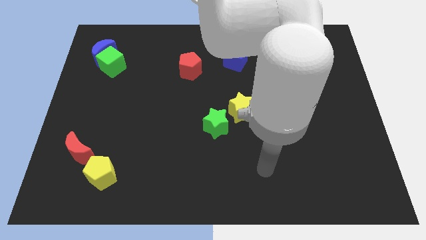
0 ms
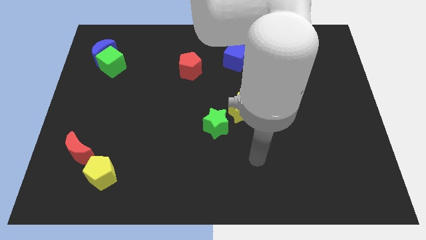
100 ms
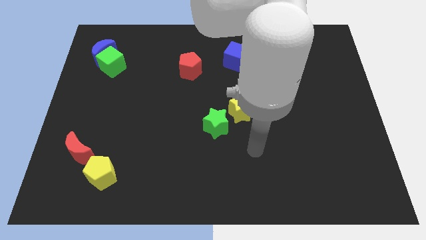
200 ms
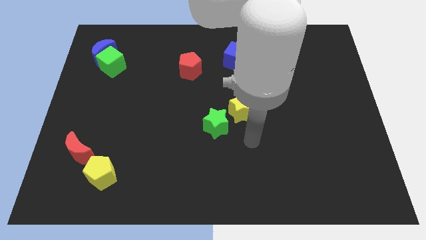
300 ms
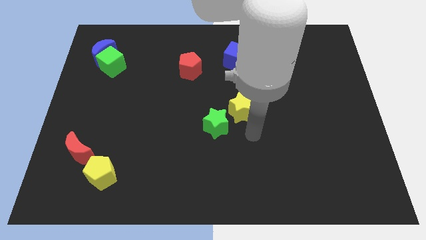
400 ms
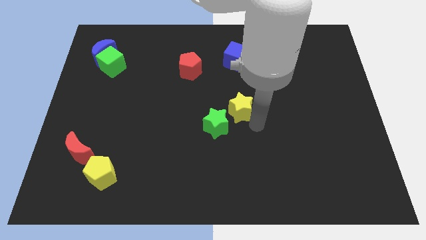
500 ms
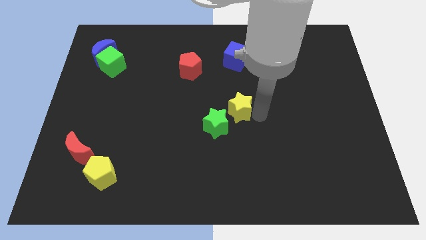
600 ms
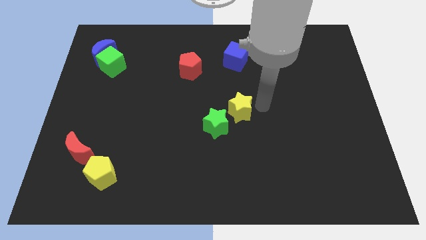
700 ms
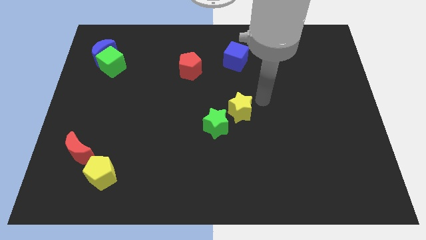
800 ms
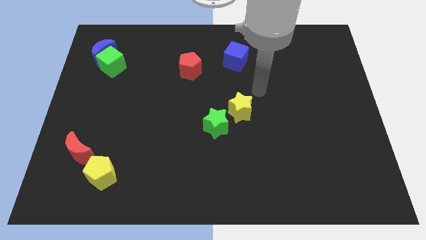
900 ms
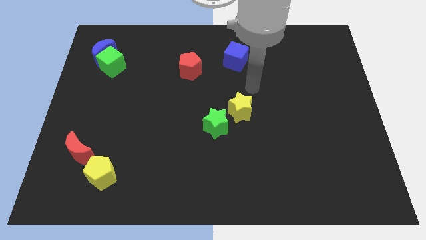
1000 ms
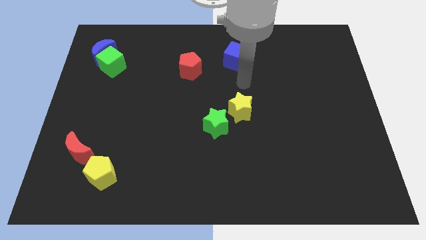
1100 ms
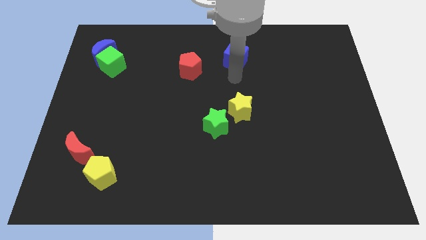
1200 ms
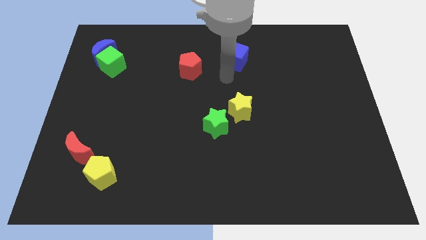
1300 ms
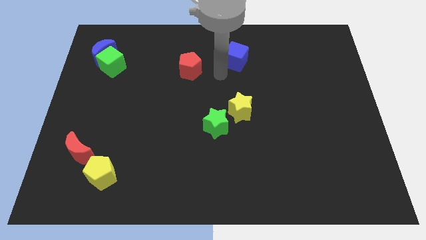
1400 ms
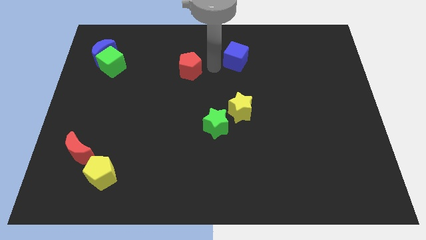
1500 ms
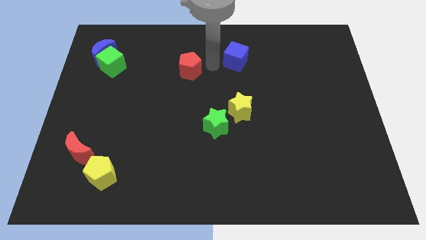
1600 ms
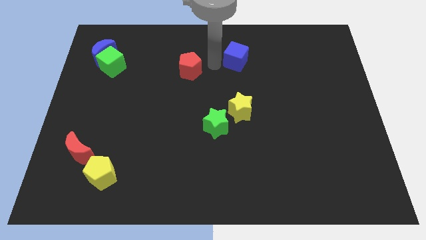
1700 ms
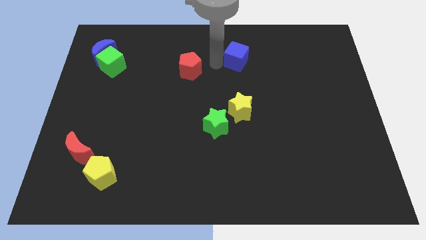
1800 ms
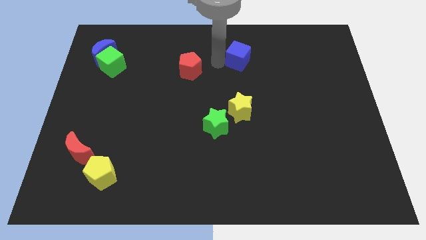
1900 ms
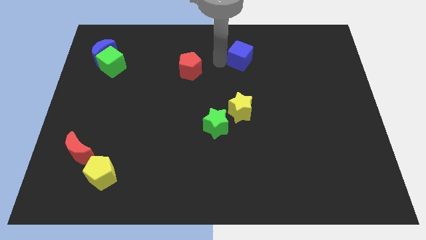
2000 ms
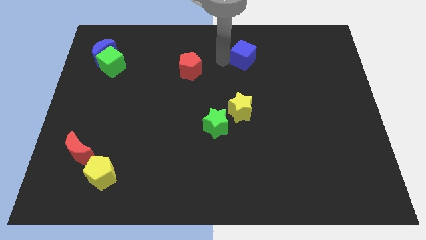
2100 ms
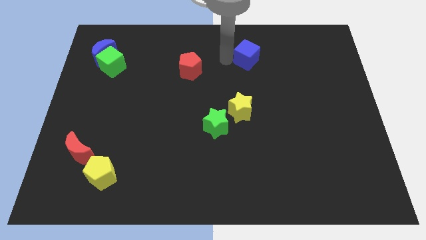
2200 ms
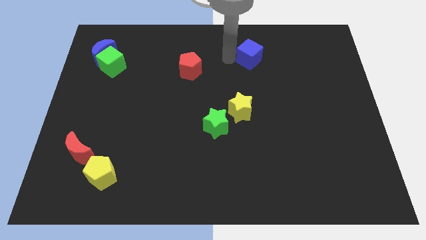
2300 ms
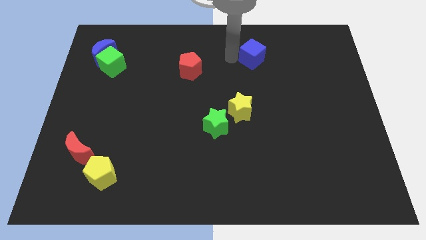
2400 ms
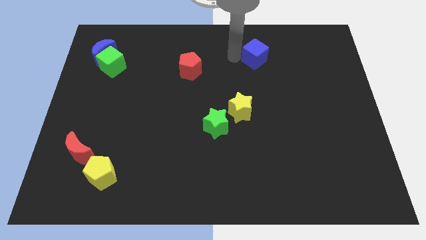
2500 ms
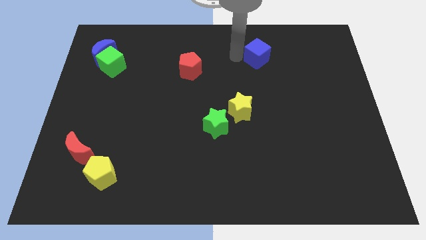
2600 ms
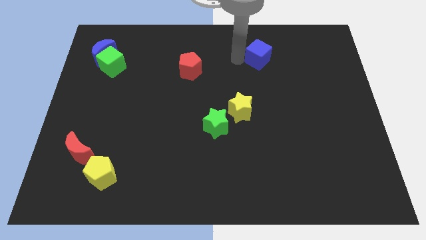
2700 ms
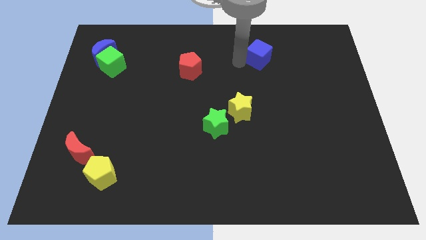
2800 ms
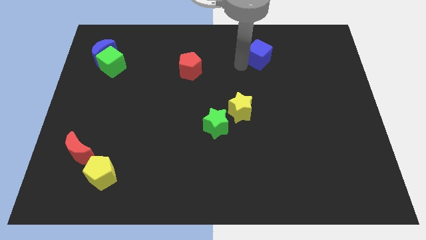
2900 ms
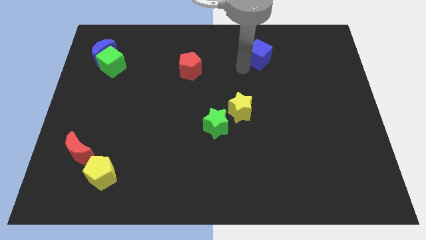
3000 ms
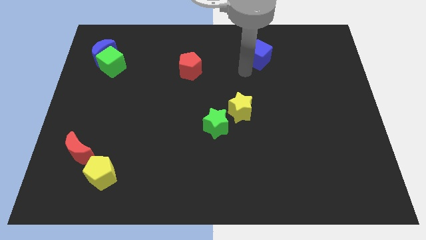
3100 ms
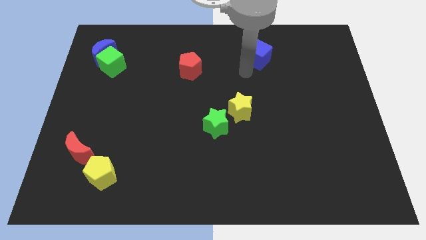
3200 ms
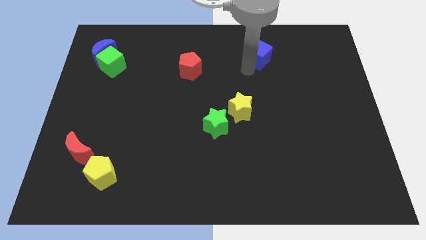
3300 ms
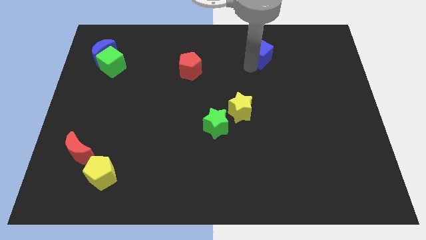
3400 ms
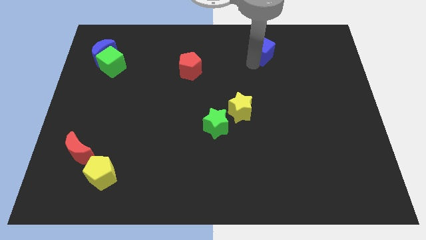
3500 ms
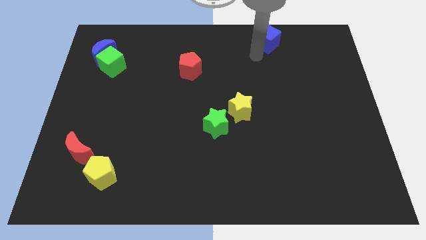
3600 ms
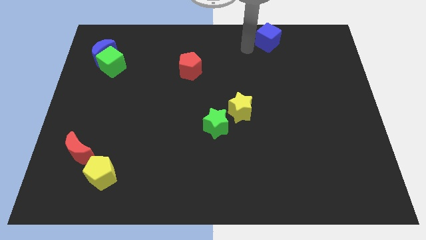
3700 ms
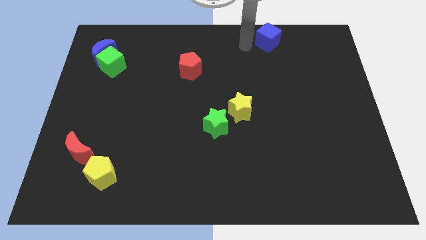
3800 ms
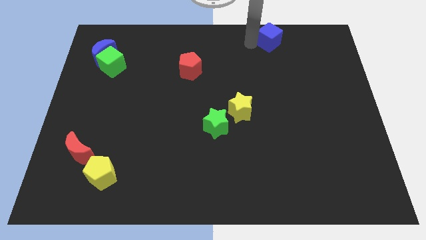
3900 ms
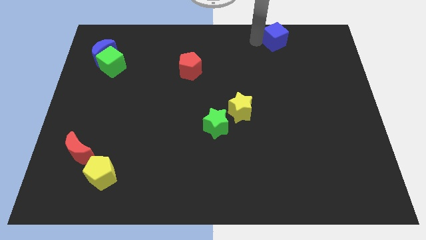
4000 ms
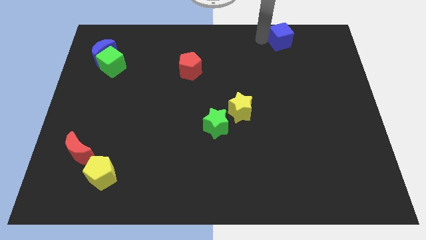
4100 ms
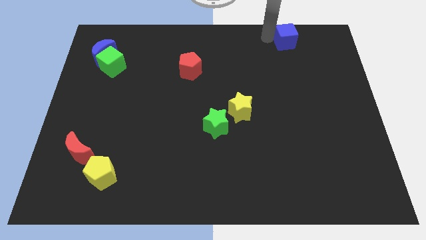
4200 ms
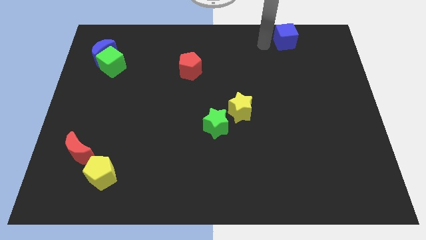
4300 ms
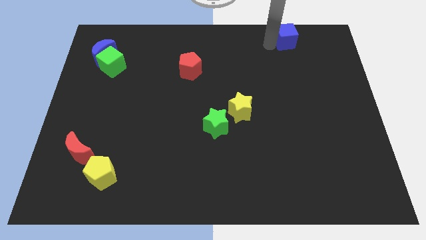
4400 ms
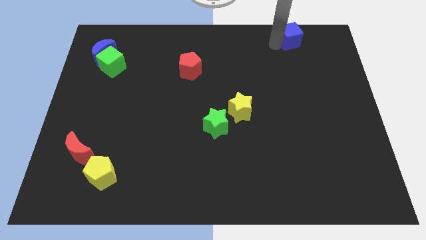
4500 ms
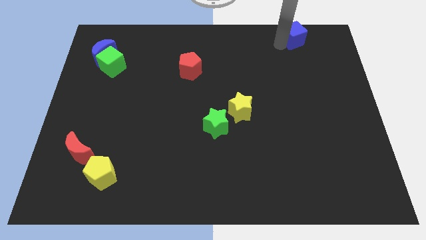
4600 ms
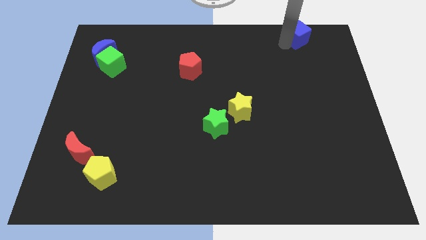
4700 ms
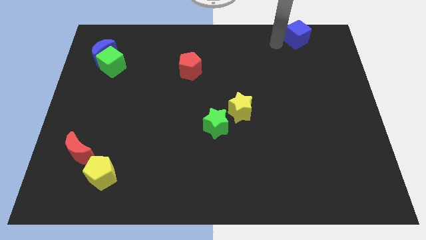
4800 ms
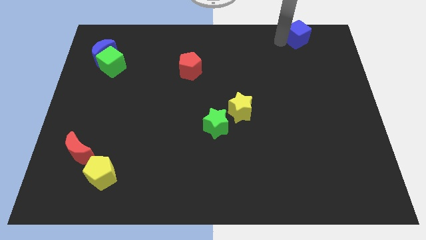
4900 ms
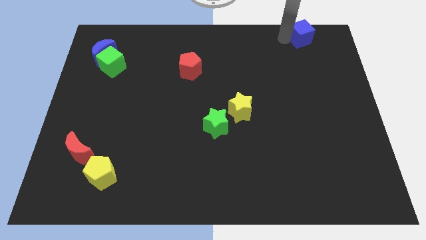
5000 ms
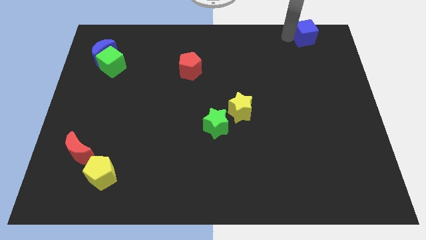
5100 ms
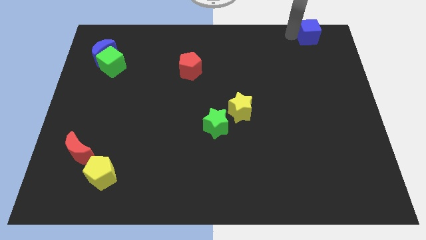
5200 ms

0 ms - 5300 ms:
push the blue cube to the top right
